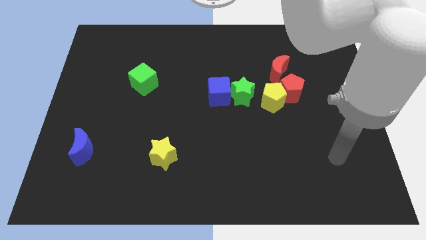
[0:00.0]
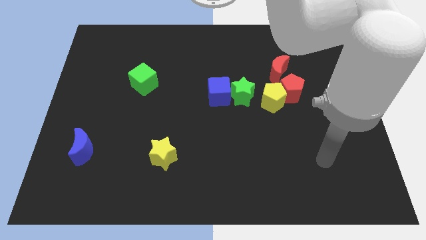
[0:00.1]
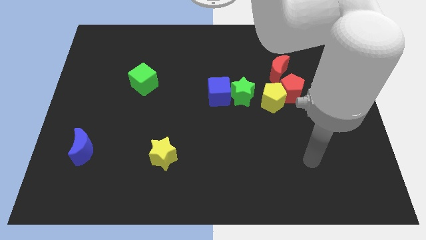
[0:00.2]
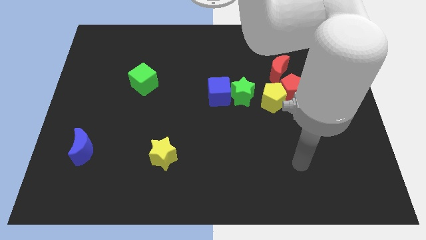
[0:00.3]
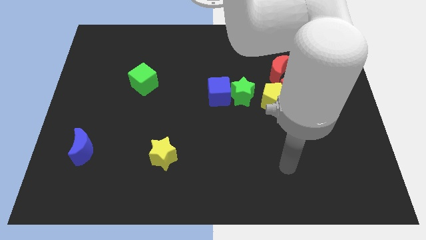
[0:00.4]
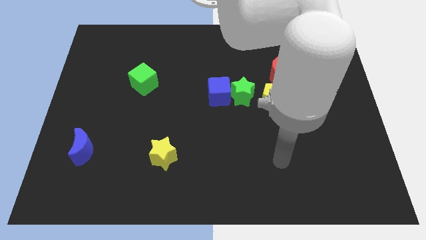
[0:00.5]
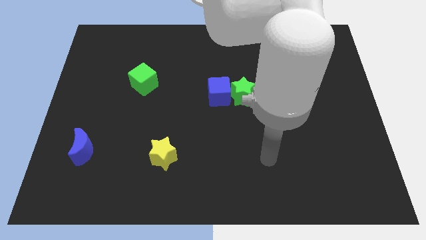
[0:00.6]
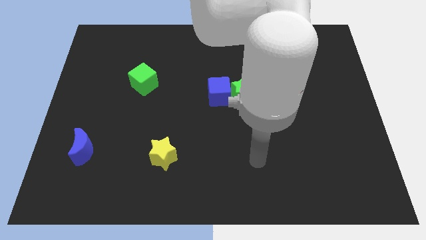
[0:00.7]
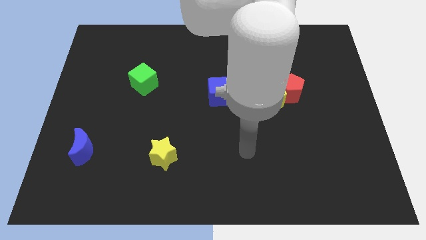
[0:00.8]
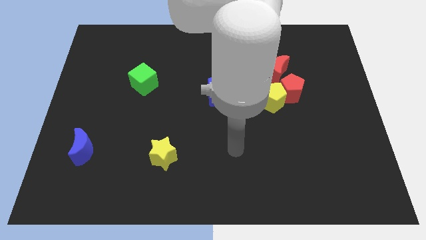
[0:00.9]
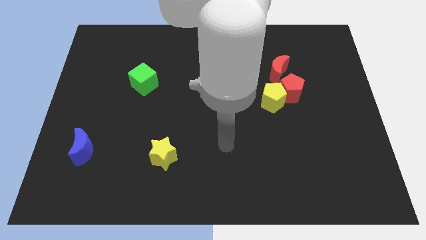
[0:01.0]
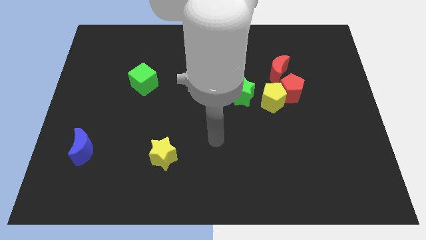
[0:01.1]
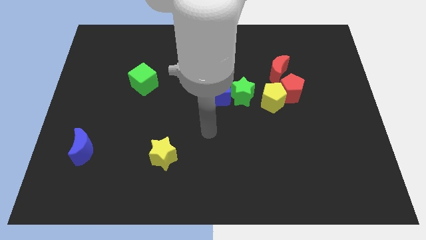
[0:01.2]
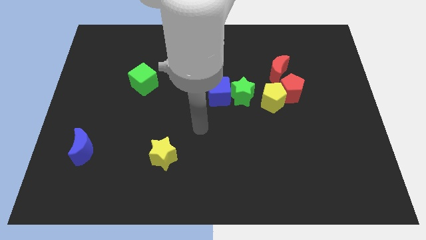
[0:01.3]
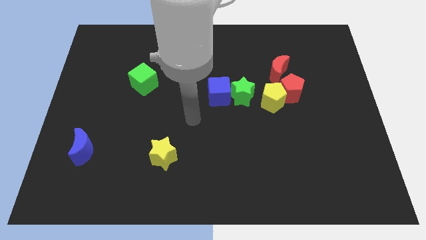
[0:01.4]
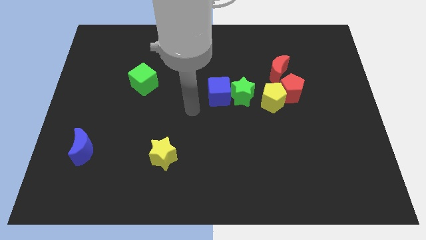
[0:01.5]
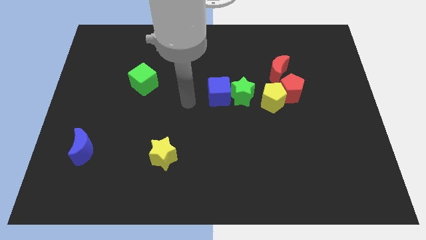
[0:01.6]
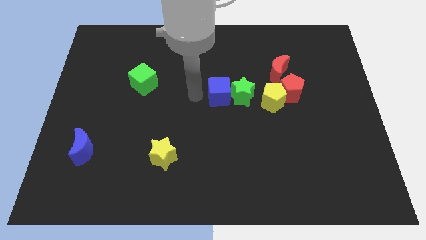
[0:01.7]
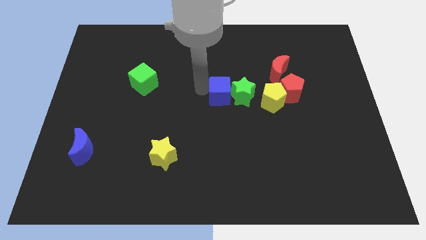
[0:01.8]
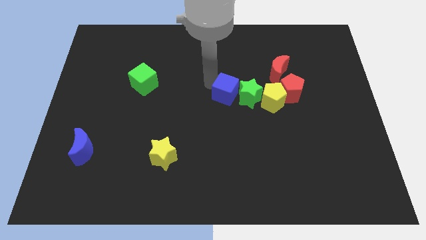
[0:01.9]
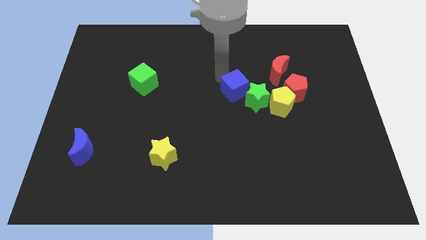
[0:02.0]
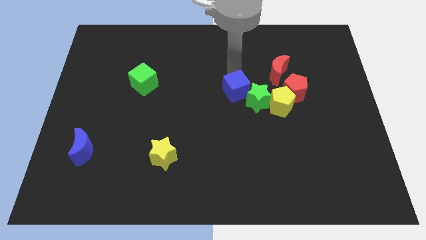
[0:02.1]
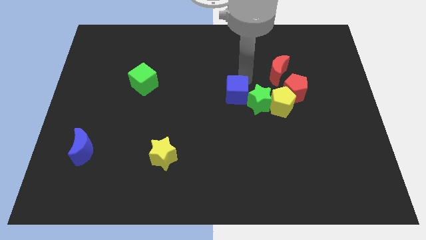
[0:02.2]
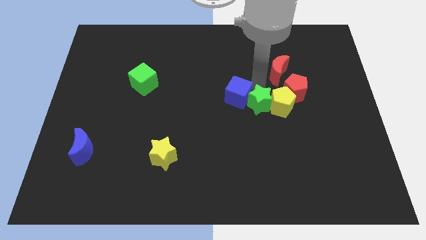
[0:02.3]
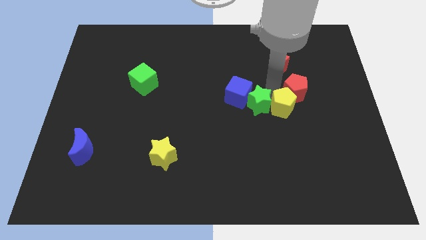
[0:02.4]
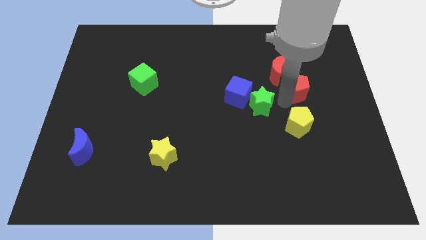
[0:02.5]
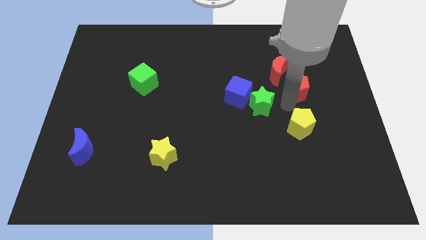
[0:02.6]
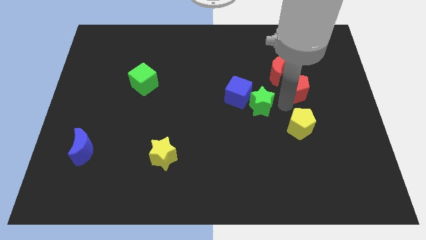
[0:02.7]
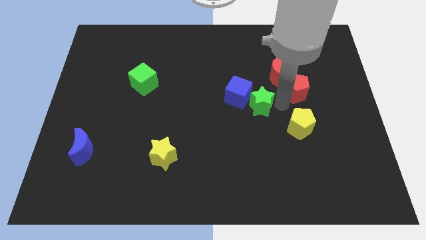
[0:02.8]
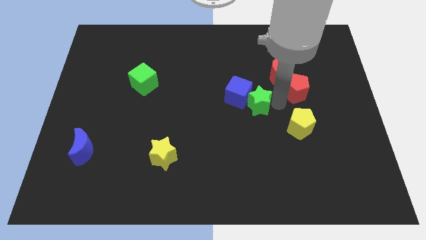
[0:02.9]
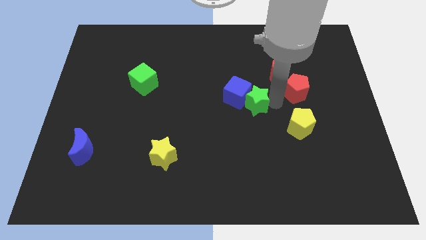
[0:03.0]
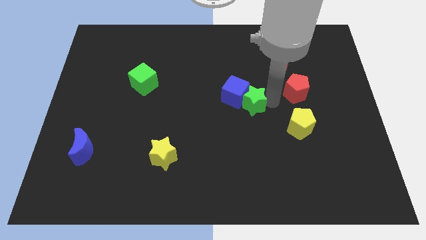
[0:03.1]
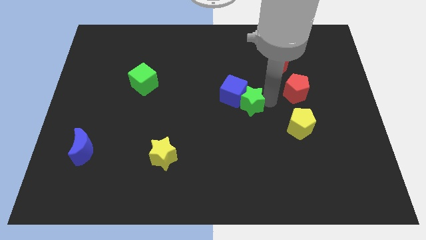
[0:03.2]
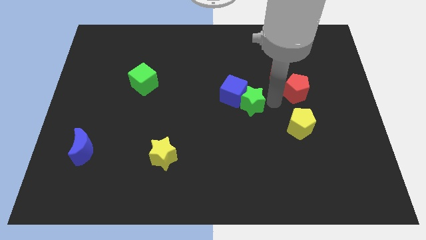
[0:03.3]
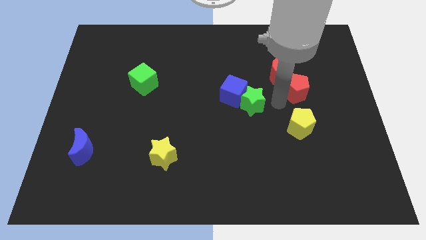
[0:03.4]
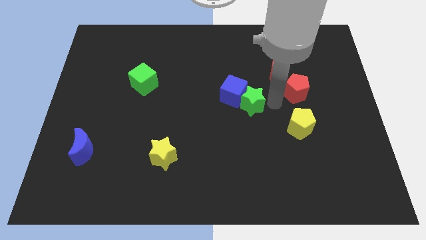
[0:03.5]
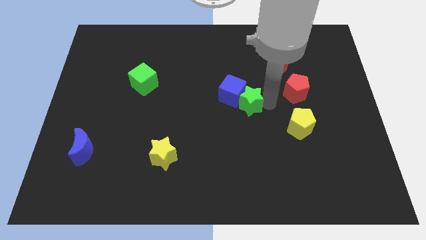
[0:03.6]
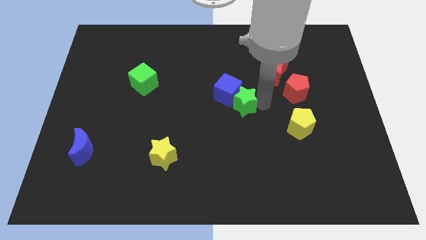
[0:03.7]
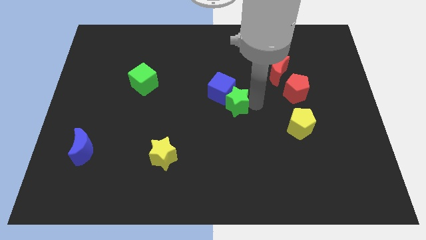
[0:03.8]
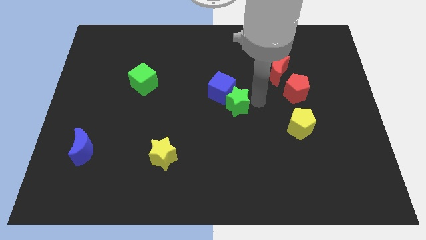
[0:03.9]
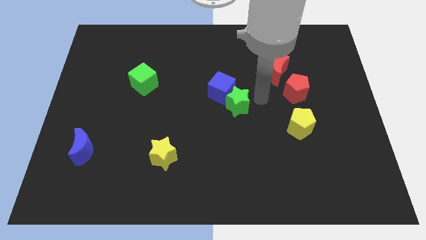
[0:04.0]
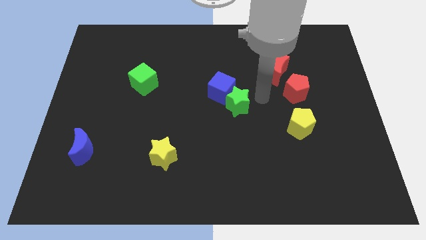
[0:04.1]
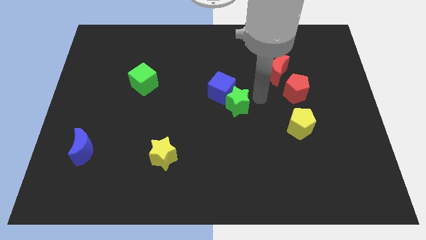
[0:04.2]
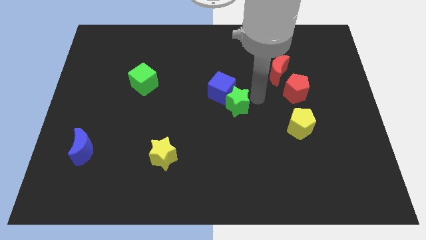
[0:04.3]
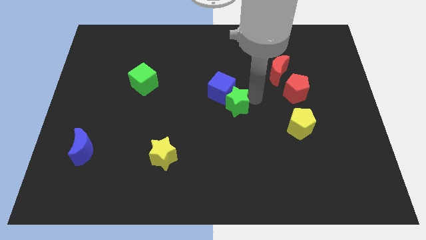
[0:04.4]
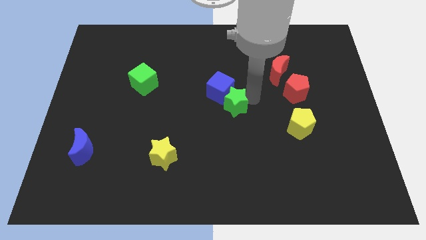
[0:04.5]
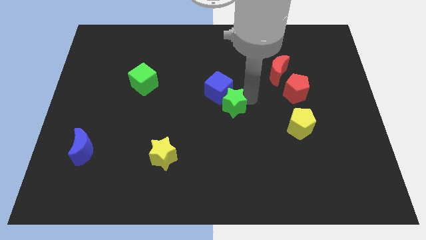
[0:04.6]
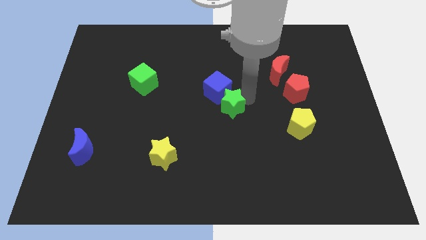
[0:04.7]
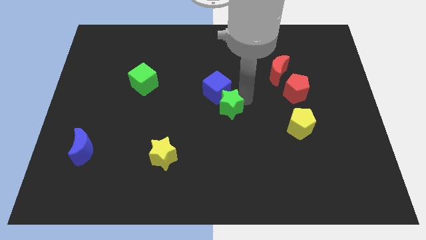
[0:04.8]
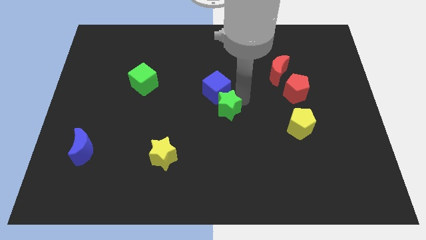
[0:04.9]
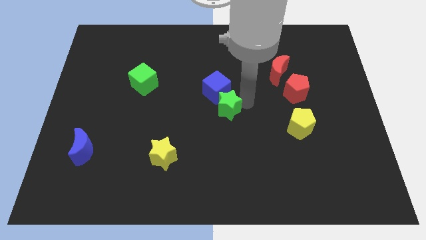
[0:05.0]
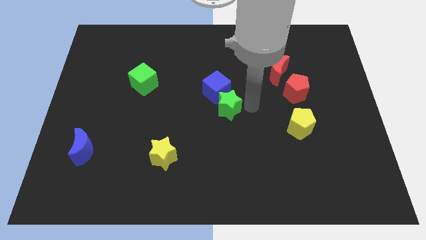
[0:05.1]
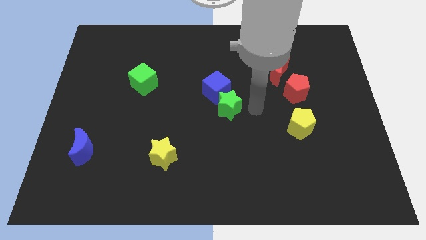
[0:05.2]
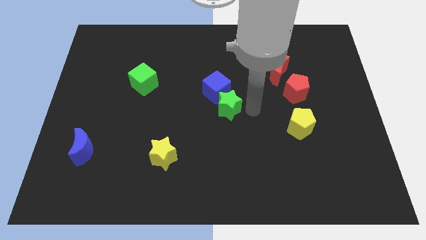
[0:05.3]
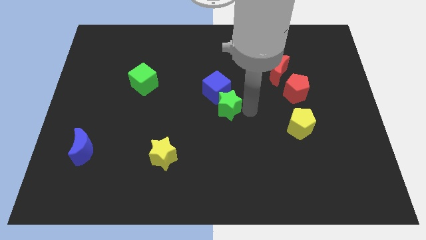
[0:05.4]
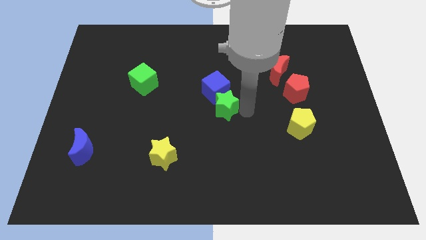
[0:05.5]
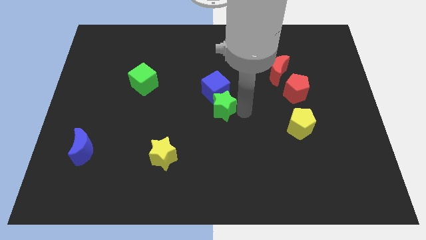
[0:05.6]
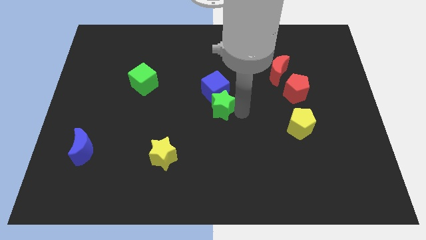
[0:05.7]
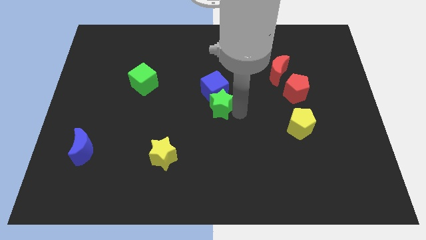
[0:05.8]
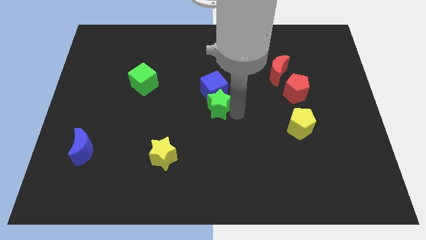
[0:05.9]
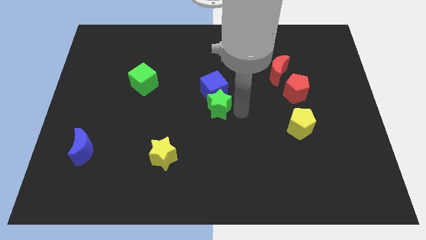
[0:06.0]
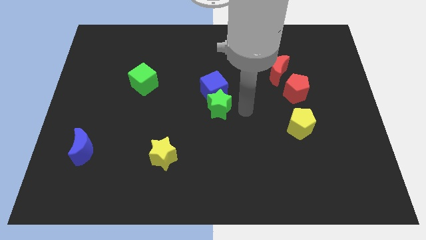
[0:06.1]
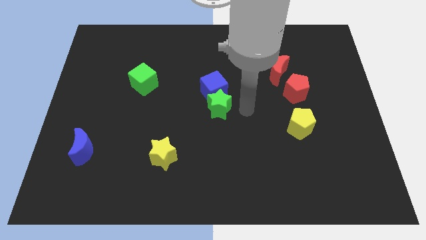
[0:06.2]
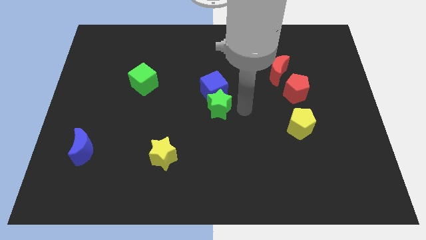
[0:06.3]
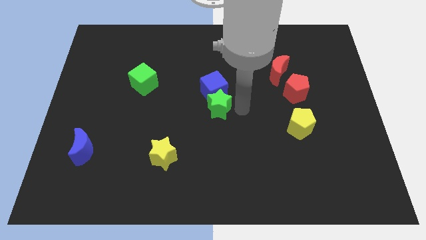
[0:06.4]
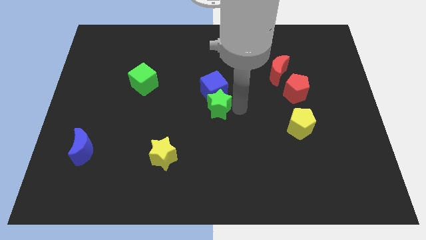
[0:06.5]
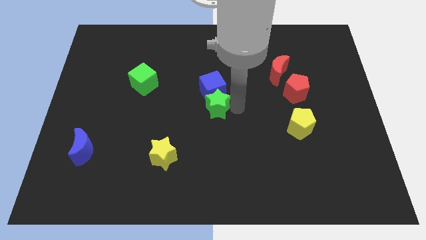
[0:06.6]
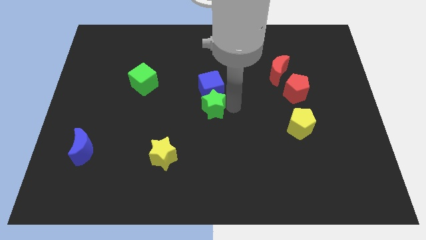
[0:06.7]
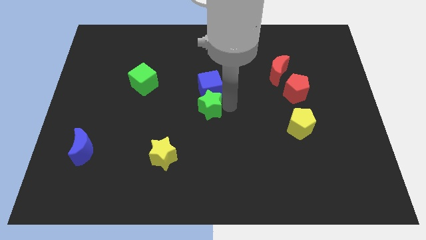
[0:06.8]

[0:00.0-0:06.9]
slide the green star to the left somewhat

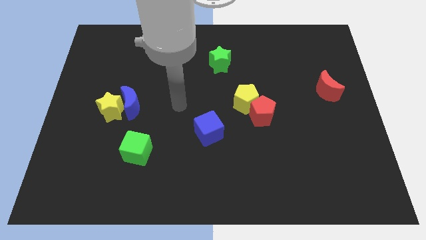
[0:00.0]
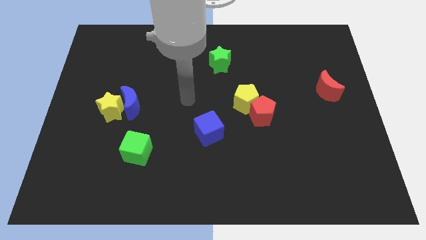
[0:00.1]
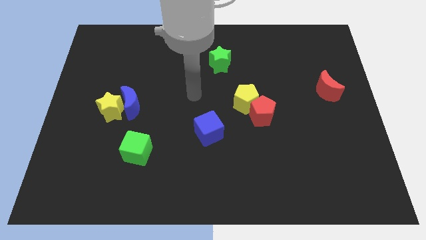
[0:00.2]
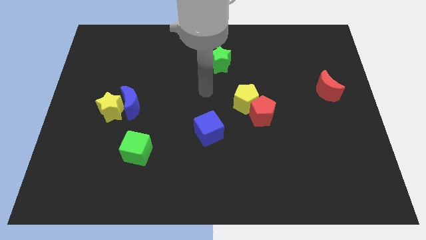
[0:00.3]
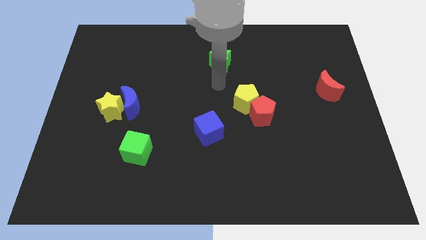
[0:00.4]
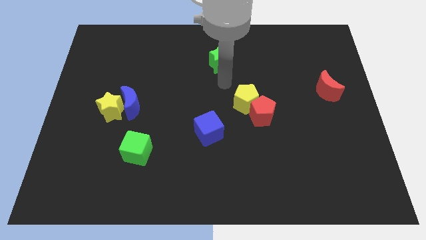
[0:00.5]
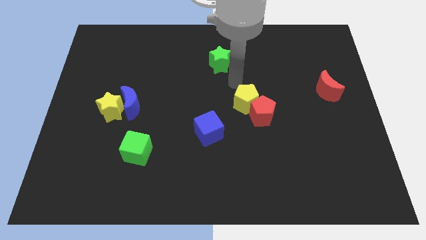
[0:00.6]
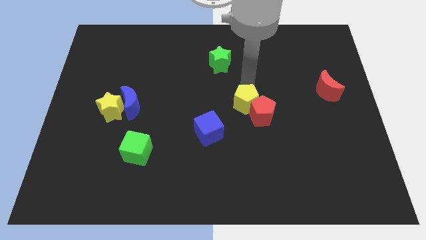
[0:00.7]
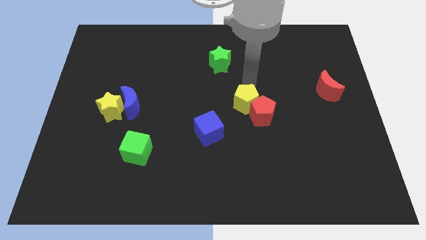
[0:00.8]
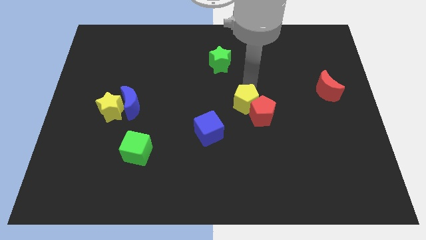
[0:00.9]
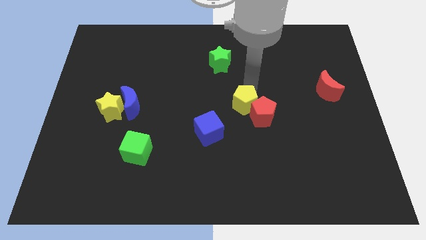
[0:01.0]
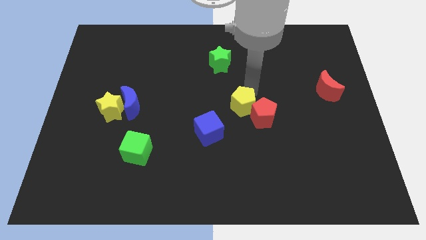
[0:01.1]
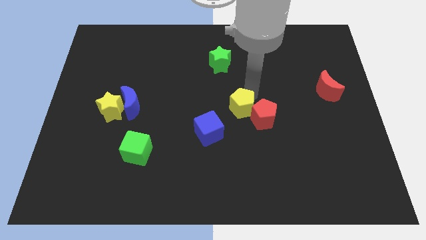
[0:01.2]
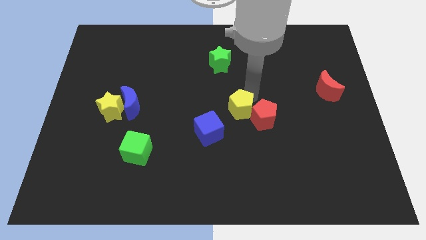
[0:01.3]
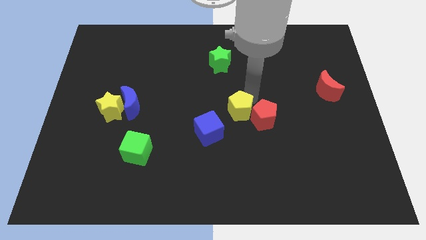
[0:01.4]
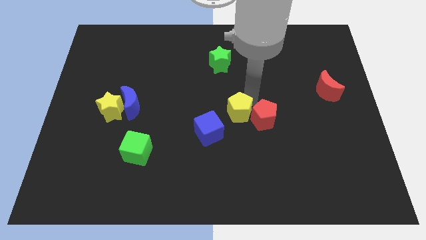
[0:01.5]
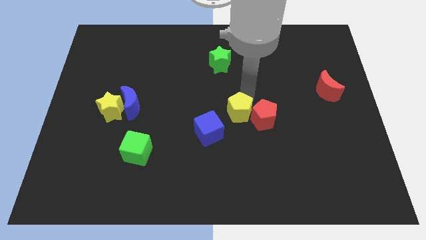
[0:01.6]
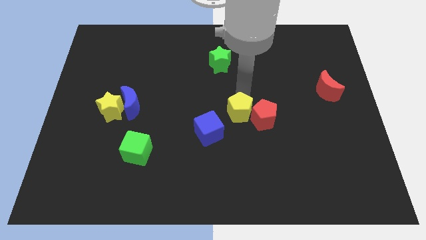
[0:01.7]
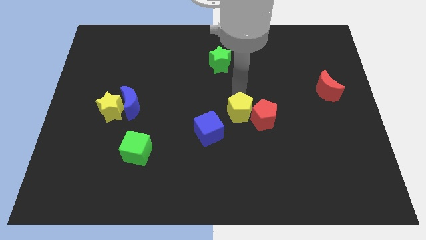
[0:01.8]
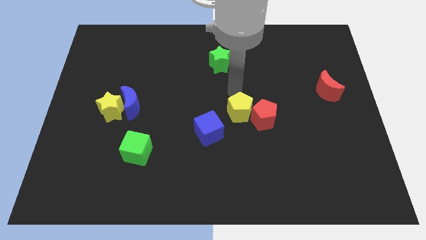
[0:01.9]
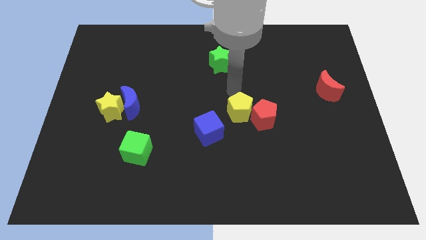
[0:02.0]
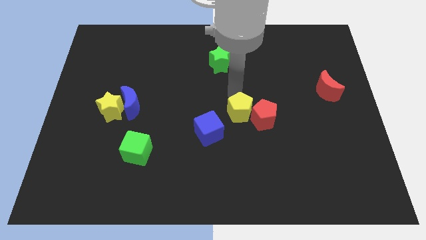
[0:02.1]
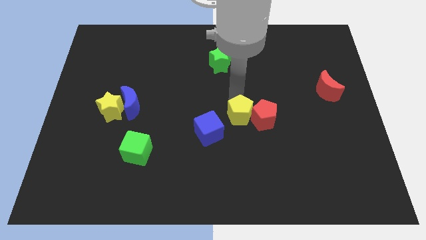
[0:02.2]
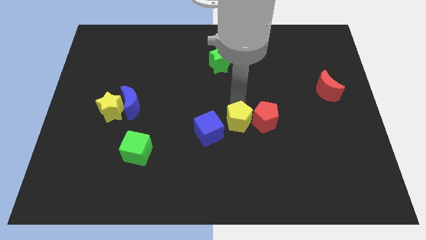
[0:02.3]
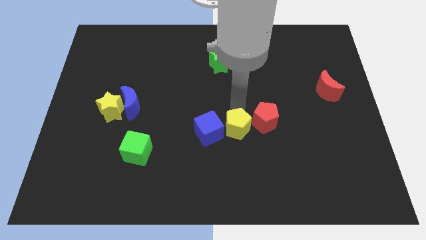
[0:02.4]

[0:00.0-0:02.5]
move the yellow pentagon a bit downwards
